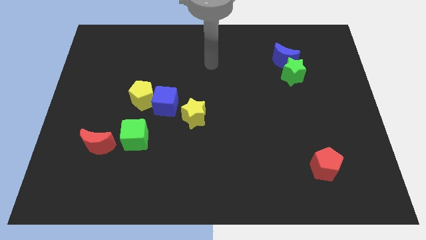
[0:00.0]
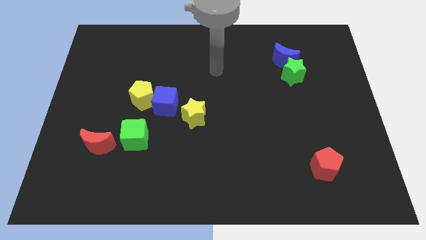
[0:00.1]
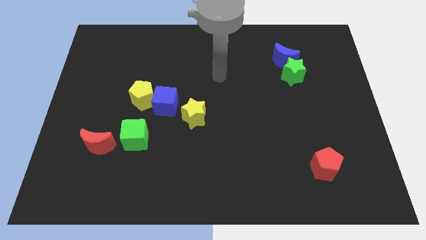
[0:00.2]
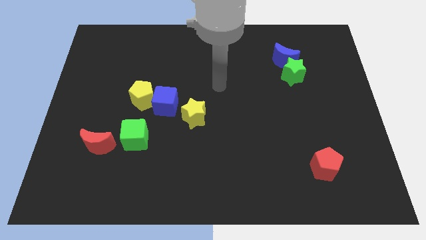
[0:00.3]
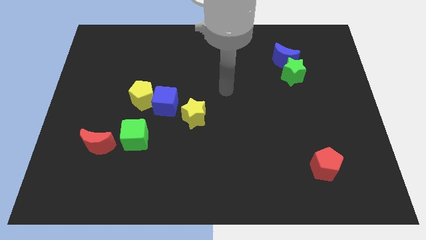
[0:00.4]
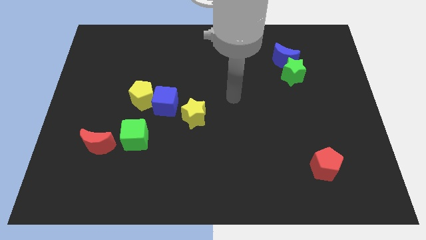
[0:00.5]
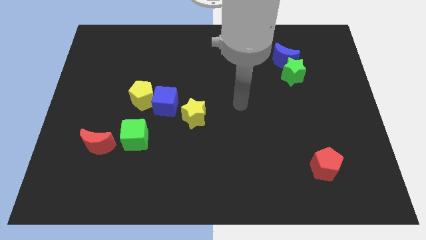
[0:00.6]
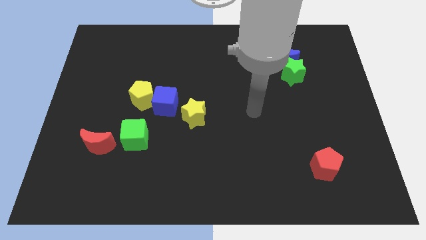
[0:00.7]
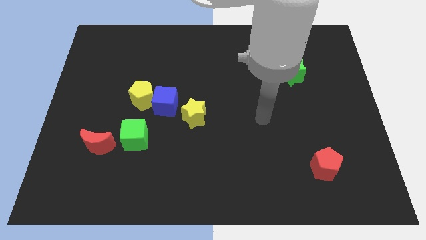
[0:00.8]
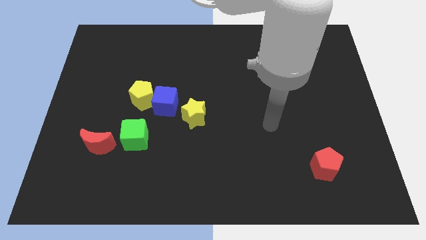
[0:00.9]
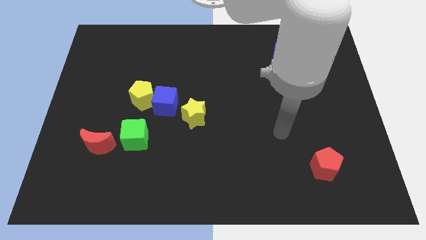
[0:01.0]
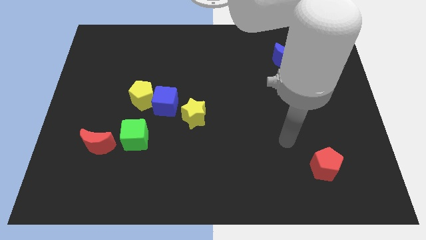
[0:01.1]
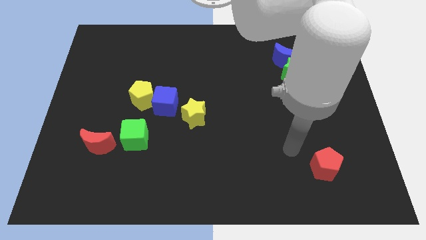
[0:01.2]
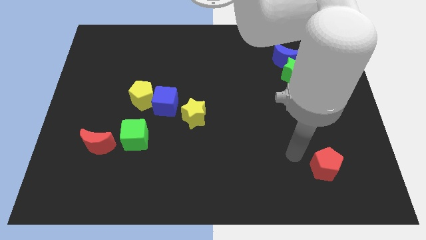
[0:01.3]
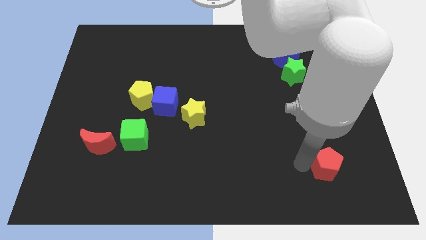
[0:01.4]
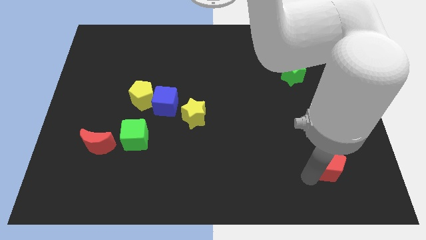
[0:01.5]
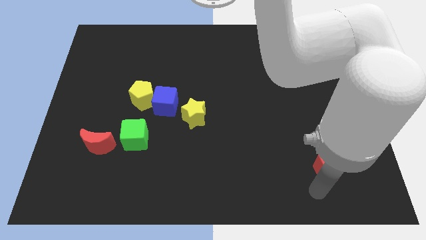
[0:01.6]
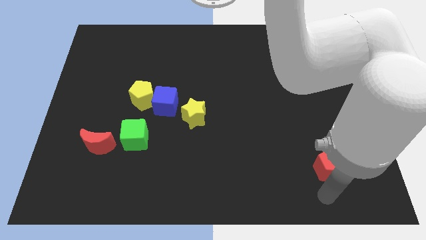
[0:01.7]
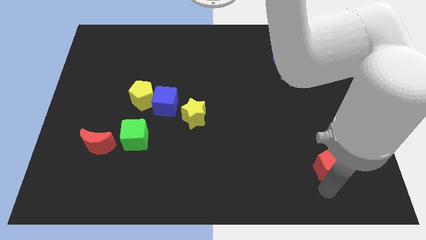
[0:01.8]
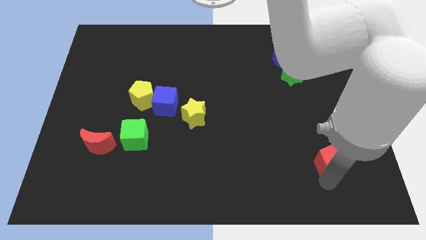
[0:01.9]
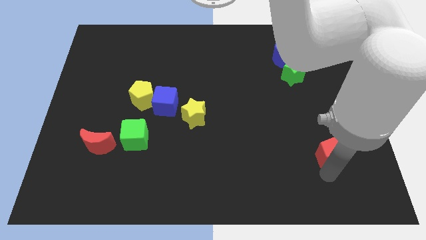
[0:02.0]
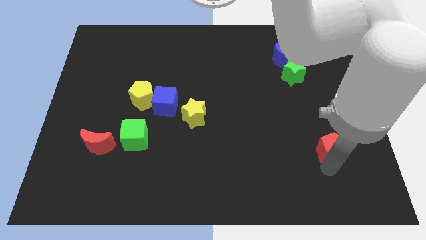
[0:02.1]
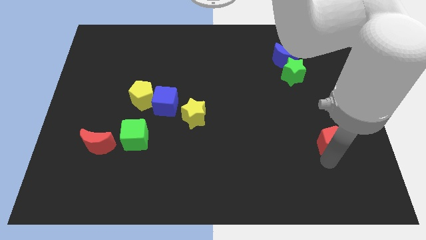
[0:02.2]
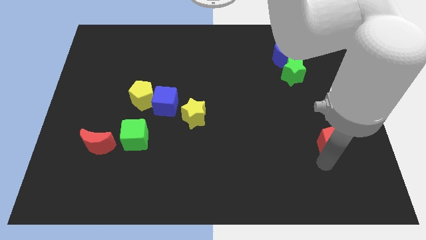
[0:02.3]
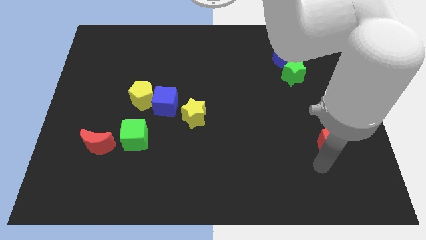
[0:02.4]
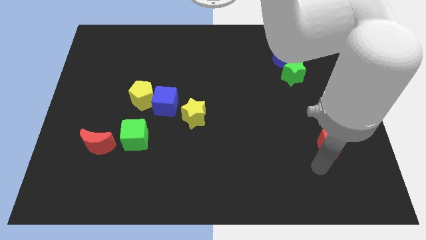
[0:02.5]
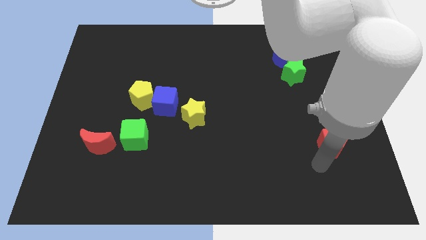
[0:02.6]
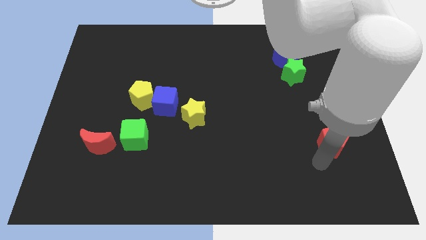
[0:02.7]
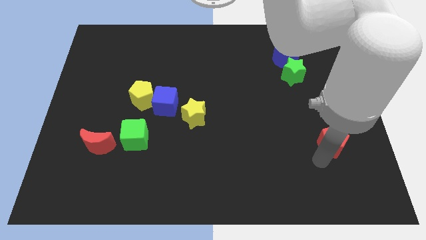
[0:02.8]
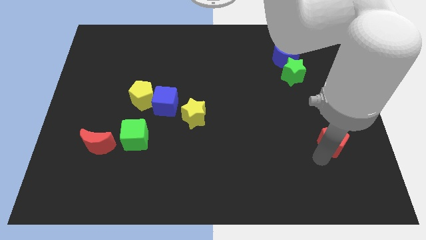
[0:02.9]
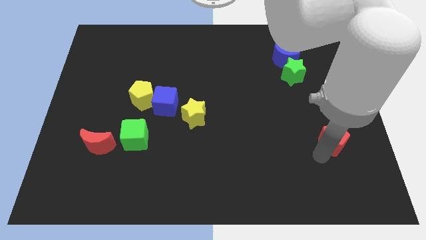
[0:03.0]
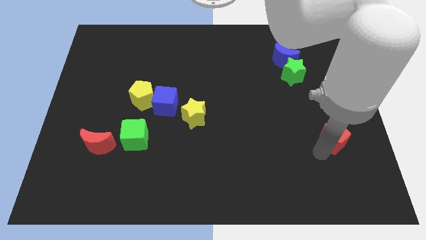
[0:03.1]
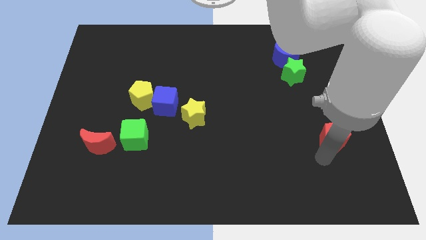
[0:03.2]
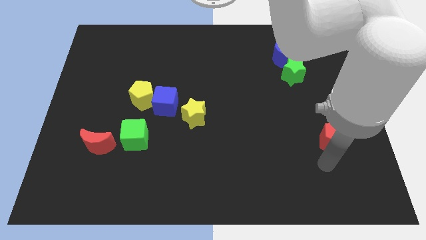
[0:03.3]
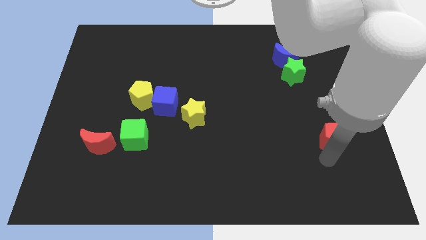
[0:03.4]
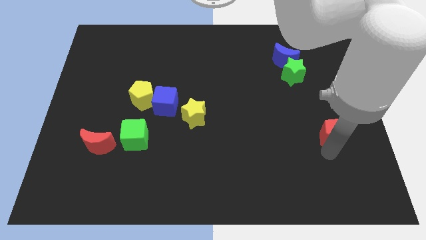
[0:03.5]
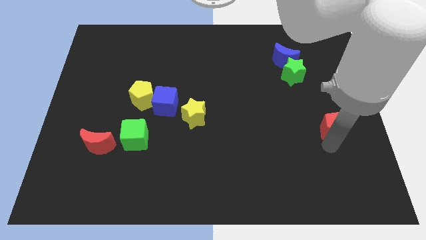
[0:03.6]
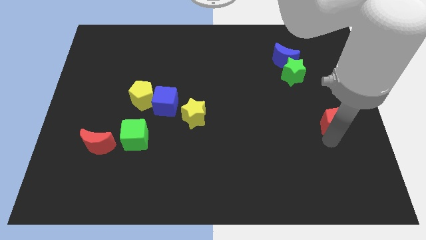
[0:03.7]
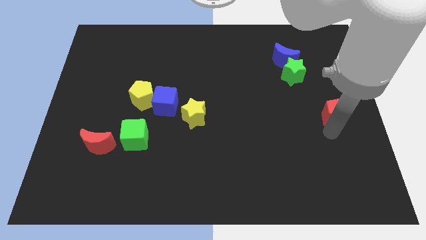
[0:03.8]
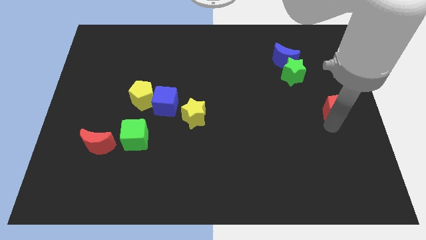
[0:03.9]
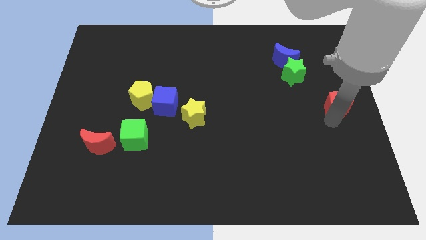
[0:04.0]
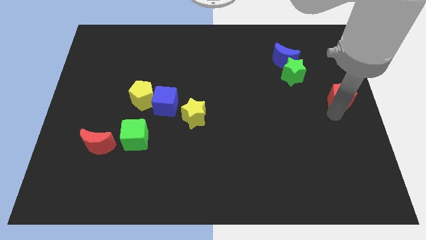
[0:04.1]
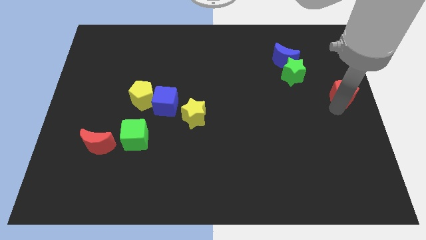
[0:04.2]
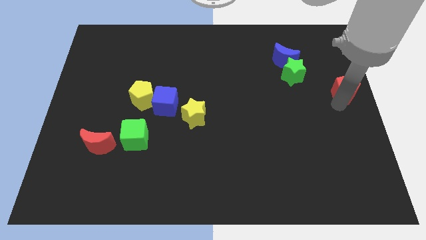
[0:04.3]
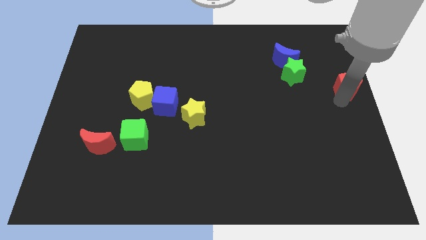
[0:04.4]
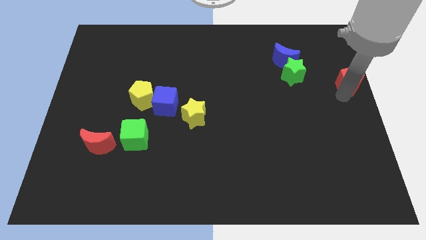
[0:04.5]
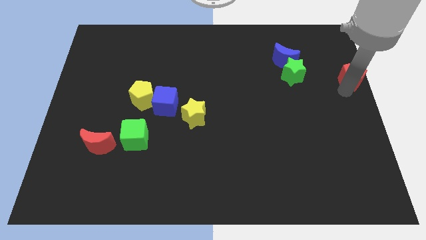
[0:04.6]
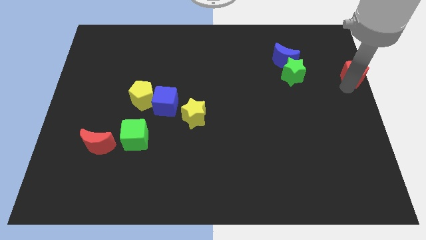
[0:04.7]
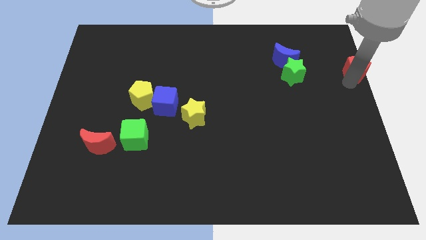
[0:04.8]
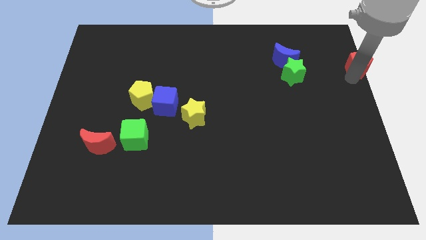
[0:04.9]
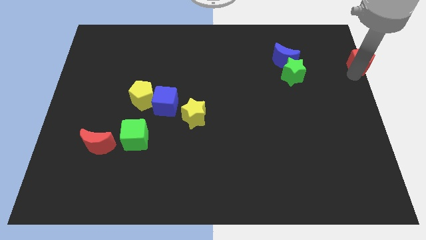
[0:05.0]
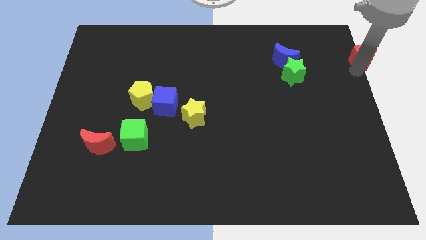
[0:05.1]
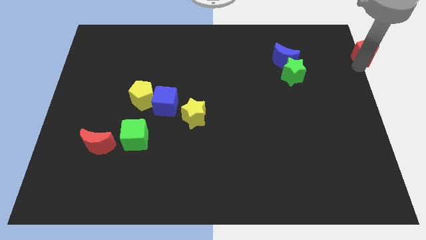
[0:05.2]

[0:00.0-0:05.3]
push the red pentagon to the upper right corner
